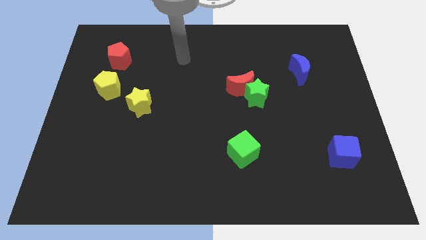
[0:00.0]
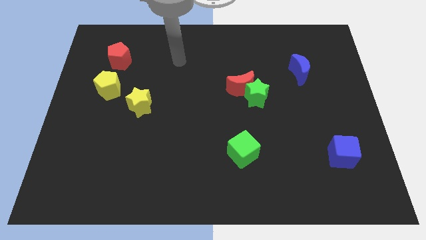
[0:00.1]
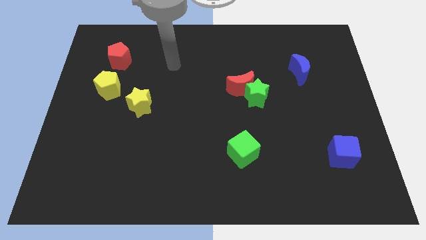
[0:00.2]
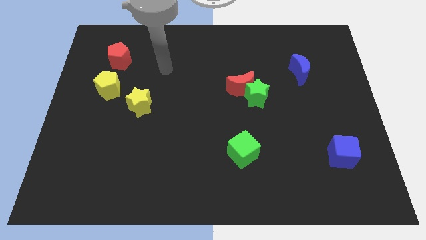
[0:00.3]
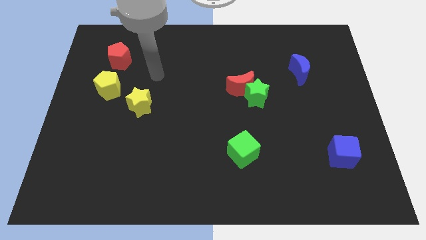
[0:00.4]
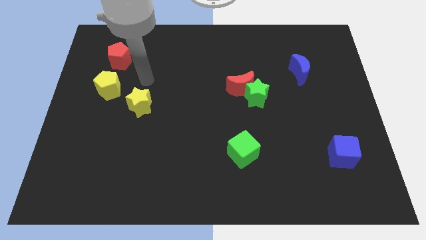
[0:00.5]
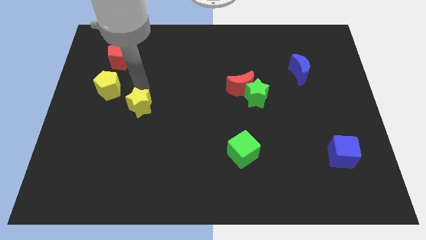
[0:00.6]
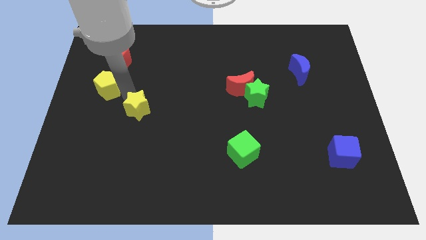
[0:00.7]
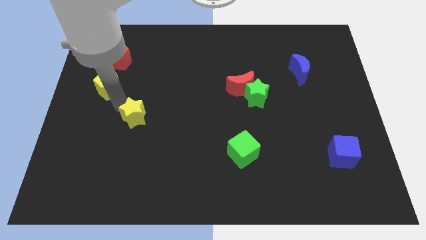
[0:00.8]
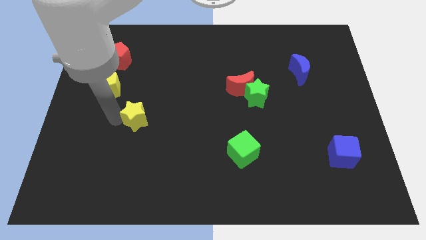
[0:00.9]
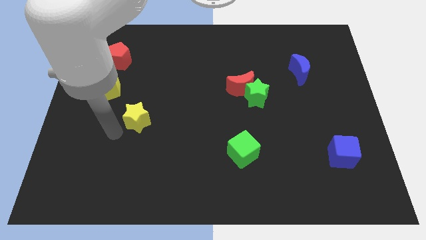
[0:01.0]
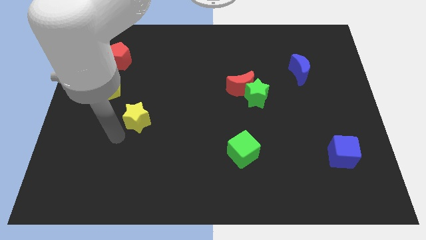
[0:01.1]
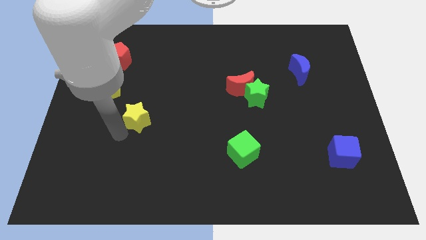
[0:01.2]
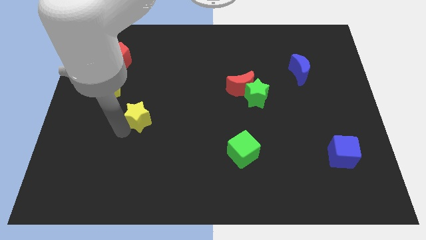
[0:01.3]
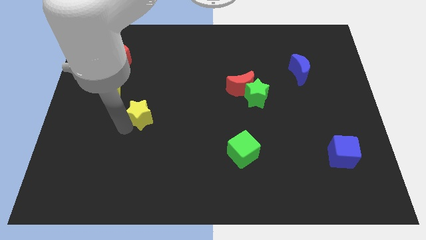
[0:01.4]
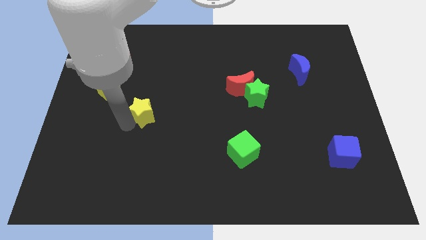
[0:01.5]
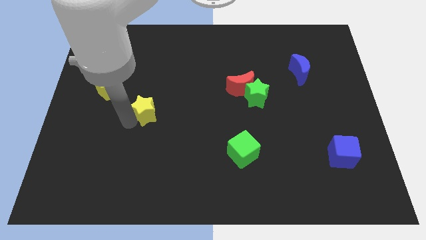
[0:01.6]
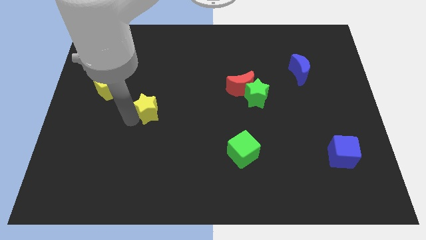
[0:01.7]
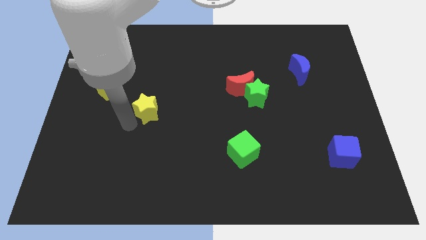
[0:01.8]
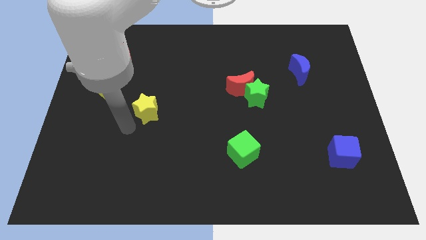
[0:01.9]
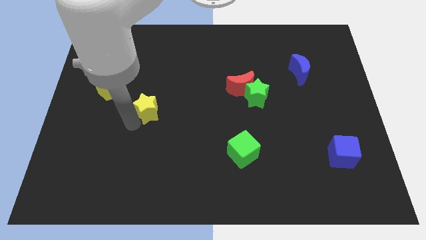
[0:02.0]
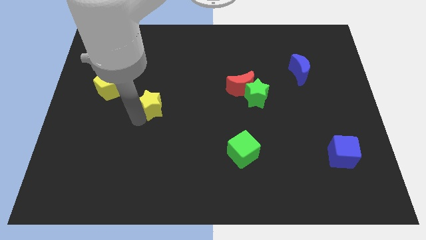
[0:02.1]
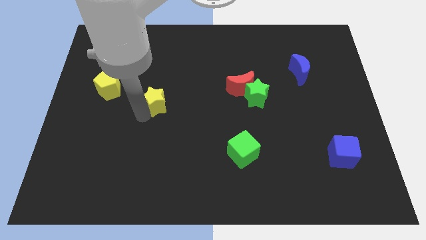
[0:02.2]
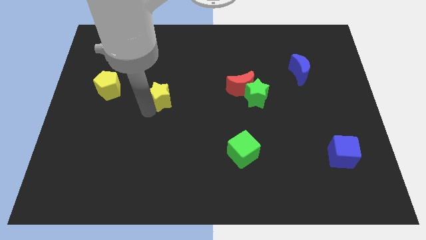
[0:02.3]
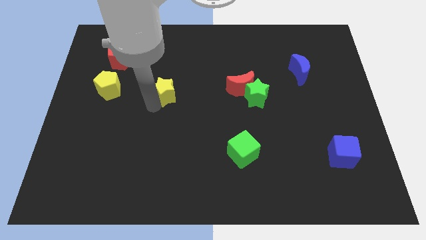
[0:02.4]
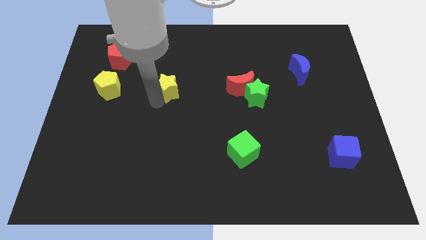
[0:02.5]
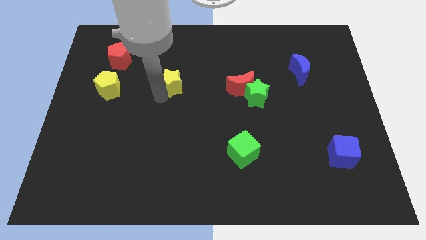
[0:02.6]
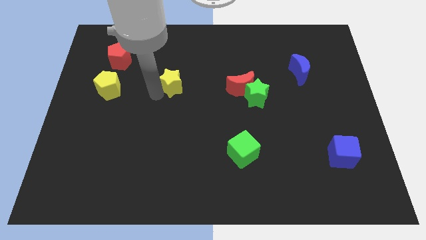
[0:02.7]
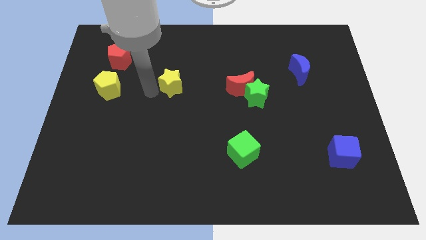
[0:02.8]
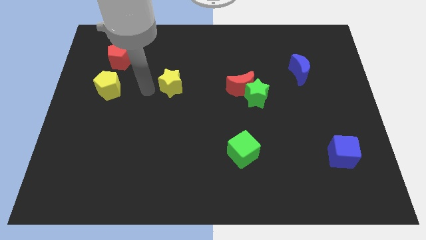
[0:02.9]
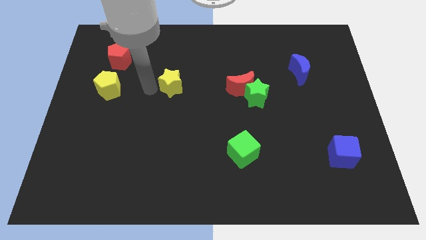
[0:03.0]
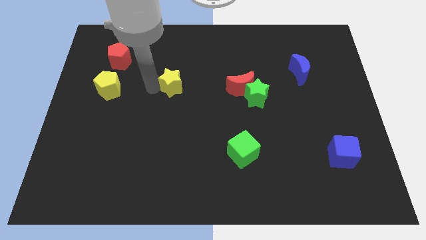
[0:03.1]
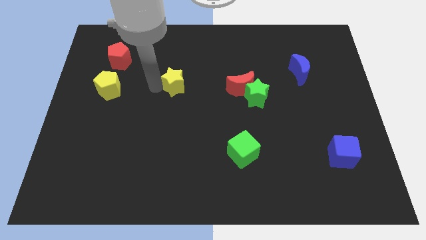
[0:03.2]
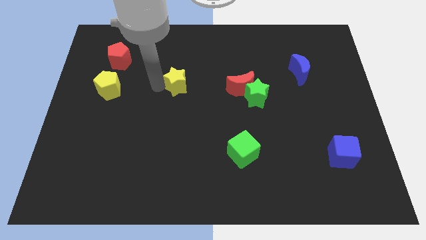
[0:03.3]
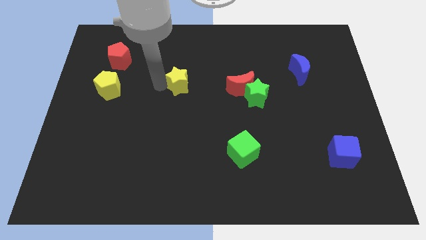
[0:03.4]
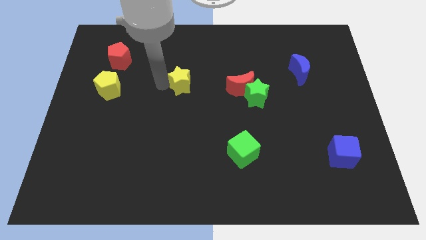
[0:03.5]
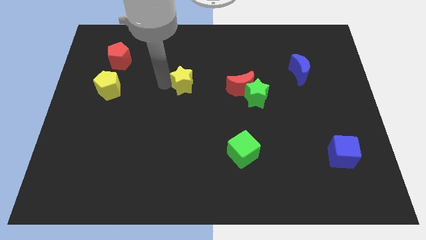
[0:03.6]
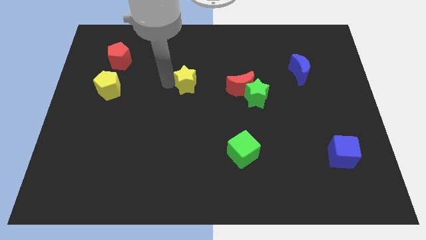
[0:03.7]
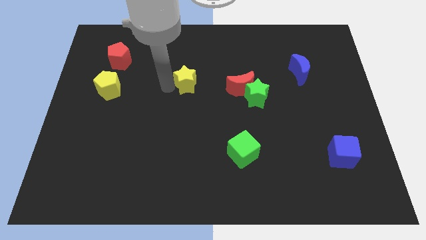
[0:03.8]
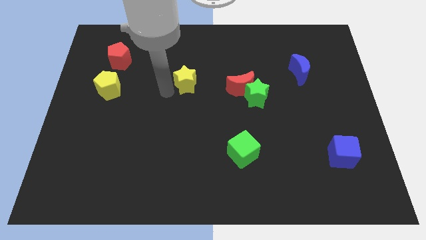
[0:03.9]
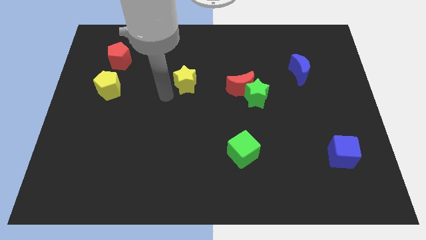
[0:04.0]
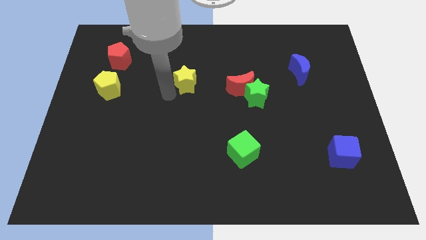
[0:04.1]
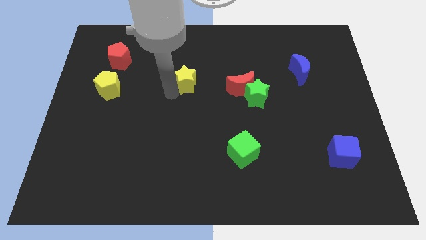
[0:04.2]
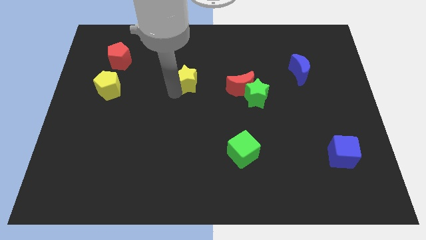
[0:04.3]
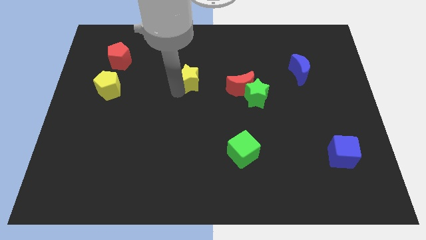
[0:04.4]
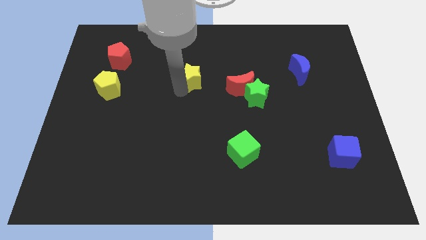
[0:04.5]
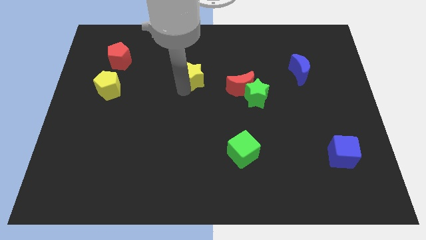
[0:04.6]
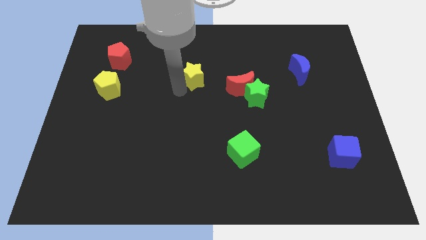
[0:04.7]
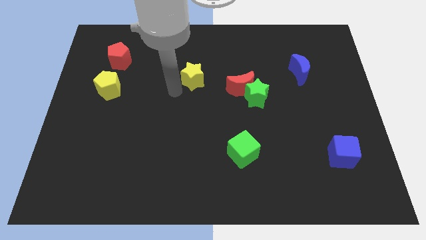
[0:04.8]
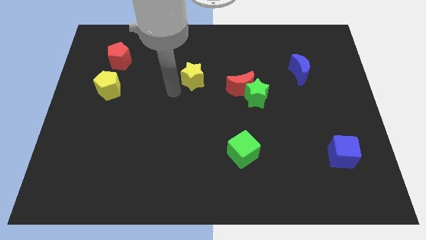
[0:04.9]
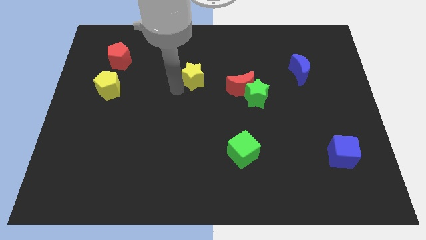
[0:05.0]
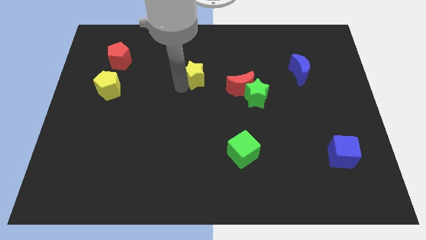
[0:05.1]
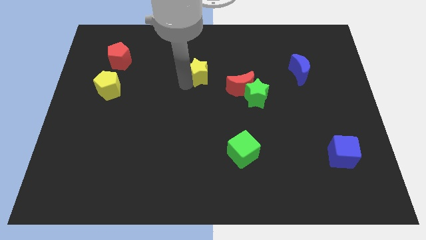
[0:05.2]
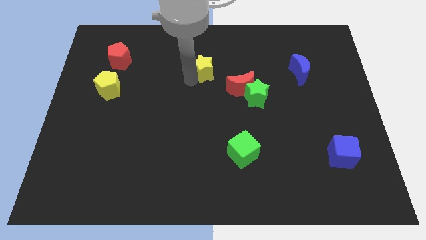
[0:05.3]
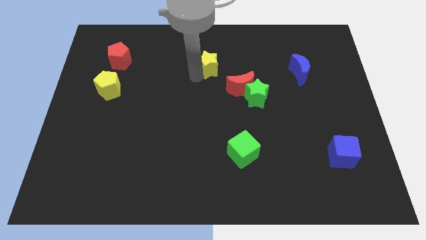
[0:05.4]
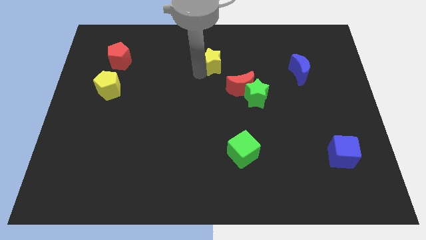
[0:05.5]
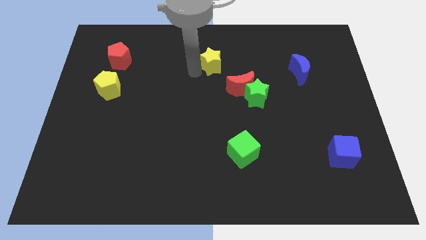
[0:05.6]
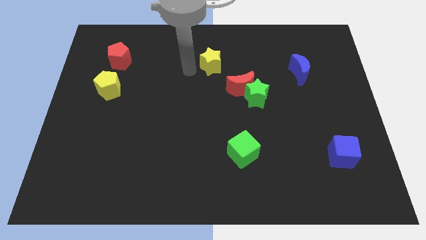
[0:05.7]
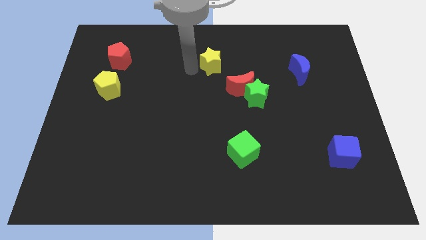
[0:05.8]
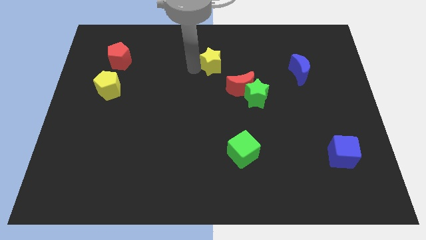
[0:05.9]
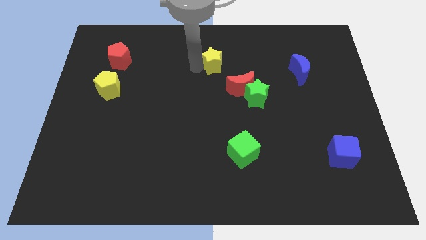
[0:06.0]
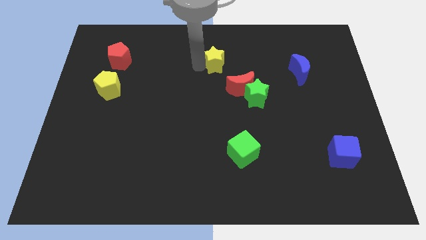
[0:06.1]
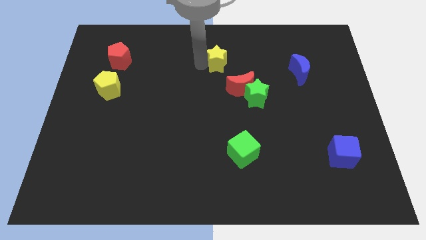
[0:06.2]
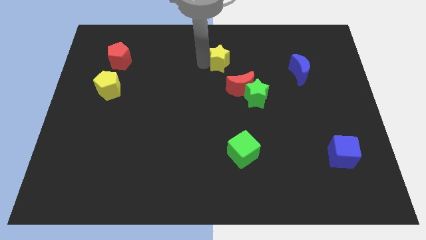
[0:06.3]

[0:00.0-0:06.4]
move the yellow star to the top of the red moon

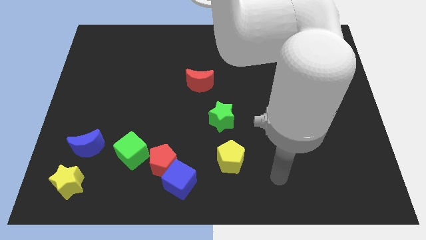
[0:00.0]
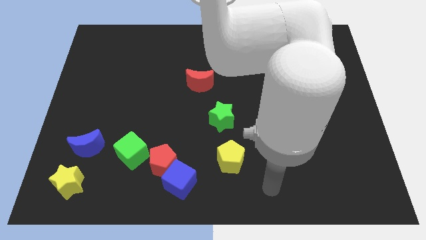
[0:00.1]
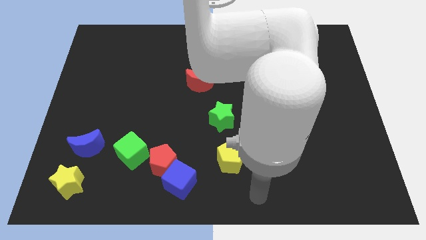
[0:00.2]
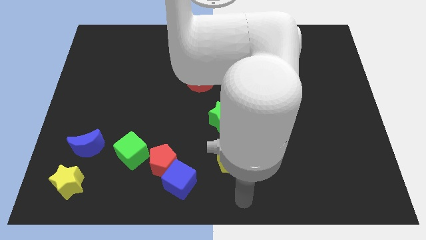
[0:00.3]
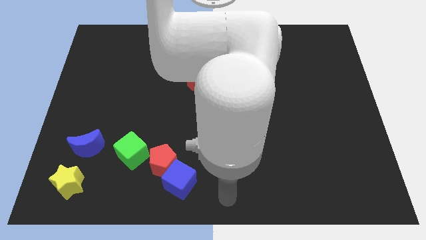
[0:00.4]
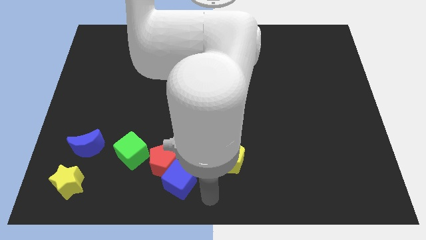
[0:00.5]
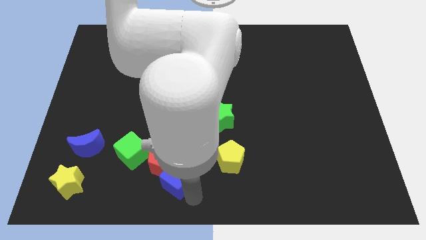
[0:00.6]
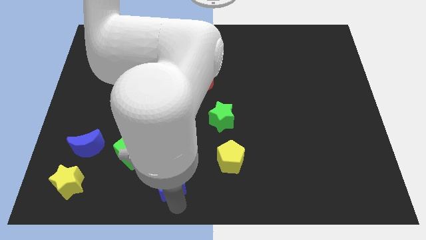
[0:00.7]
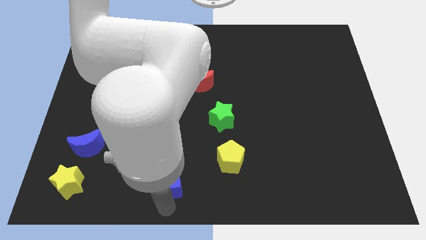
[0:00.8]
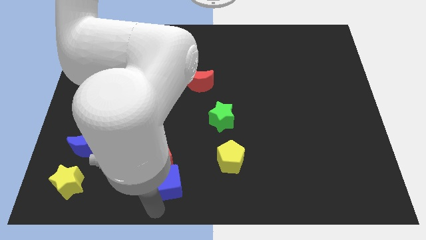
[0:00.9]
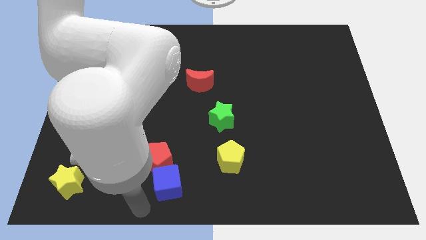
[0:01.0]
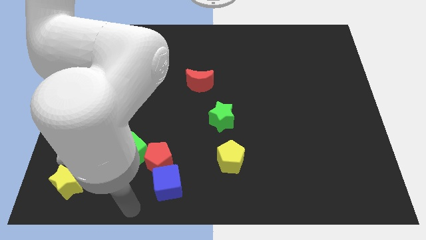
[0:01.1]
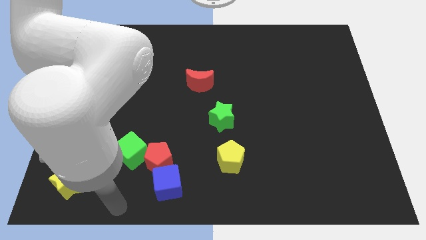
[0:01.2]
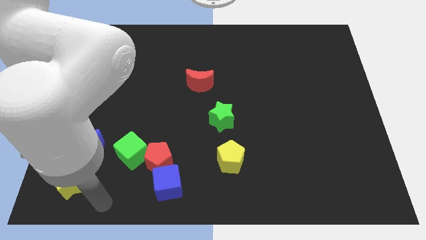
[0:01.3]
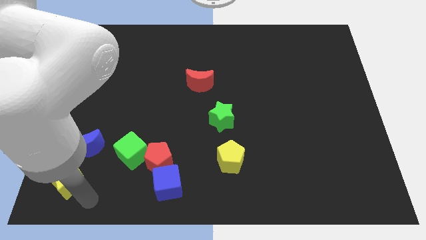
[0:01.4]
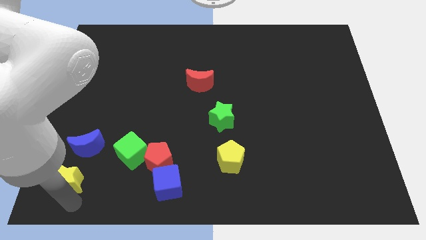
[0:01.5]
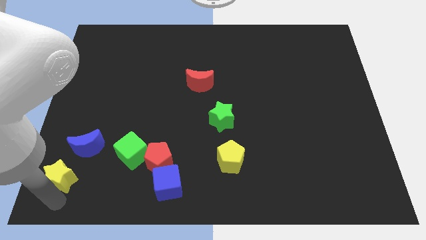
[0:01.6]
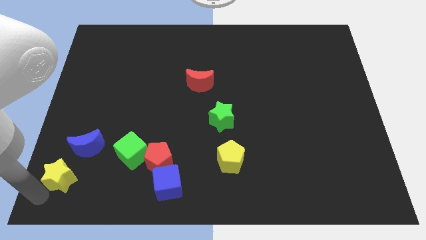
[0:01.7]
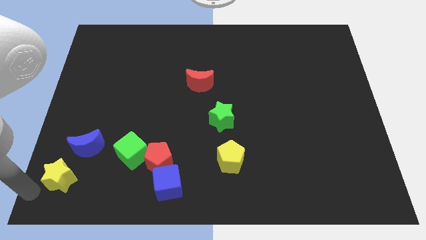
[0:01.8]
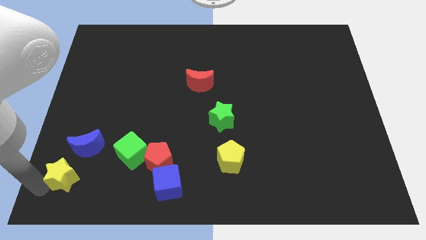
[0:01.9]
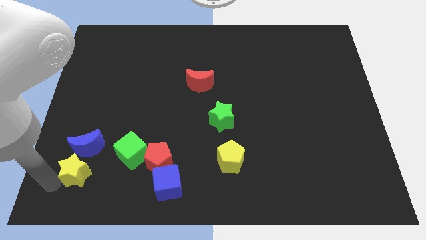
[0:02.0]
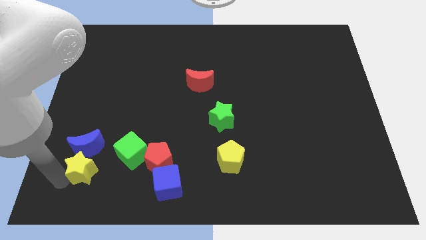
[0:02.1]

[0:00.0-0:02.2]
slide the yellow star left of the red pentagon
